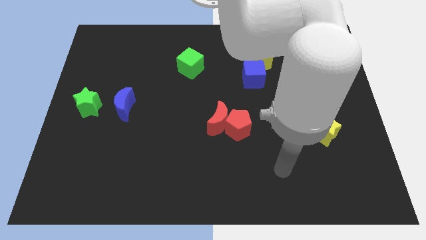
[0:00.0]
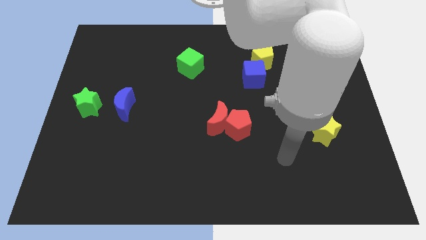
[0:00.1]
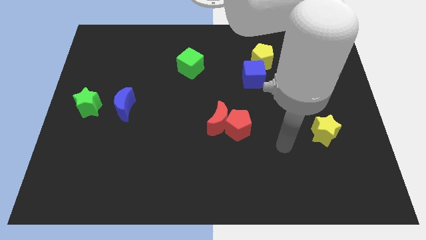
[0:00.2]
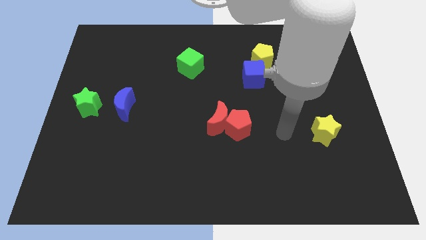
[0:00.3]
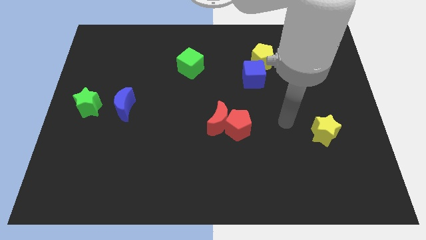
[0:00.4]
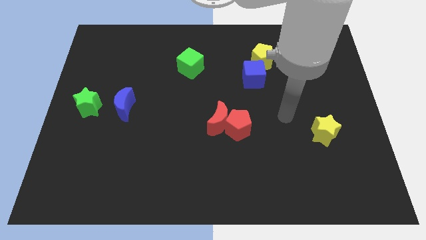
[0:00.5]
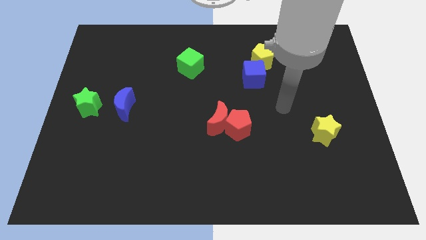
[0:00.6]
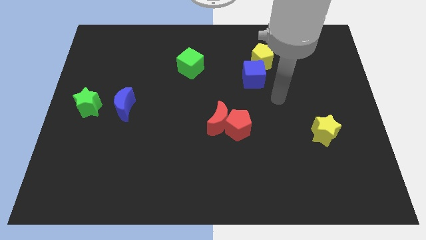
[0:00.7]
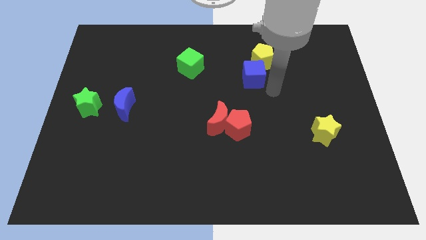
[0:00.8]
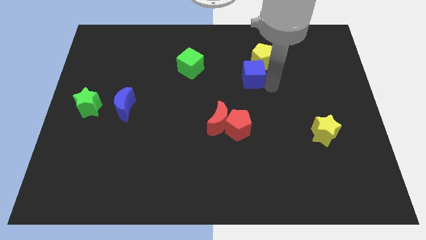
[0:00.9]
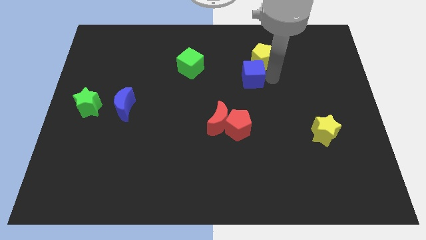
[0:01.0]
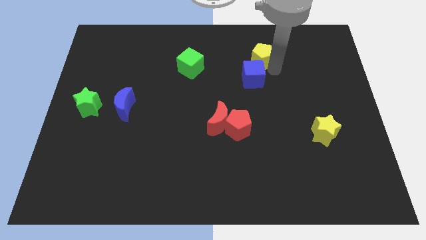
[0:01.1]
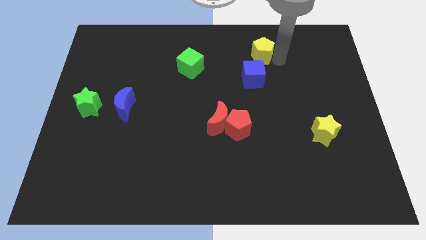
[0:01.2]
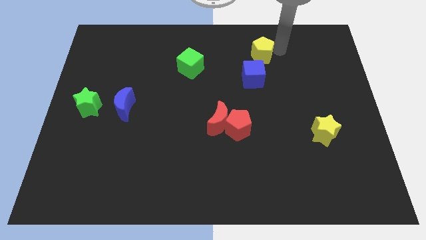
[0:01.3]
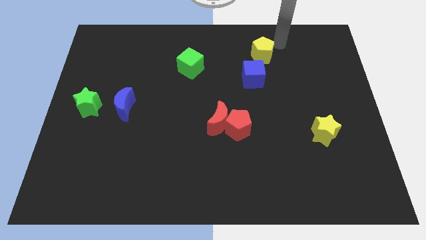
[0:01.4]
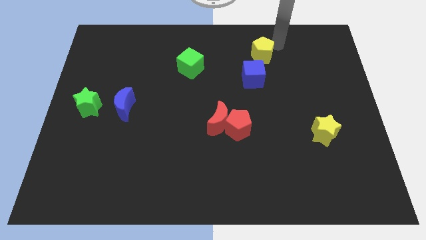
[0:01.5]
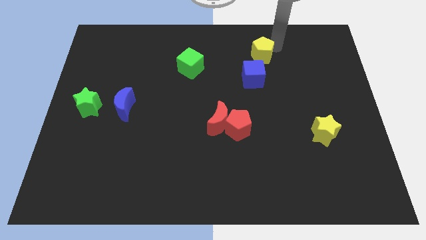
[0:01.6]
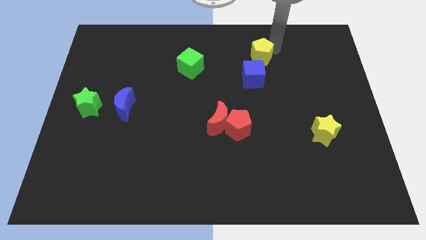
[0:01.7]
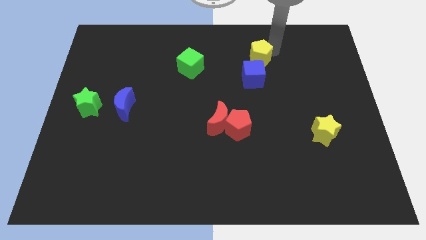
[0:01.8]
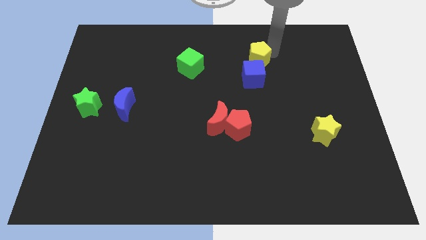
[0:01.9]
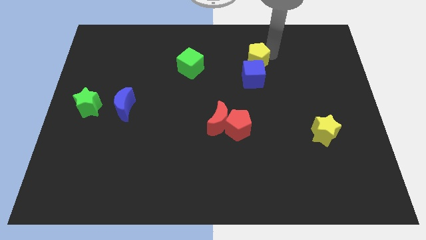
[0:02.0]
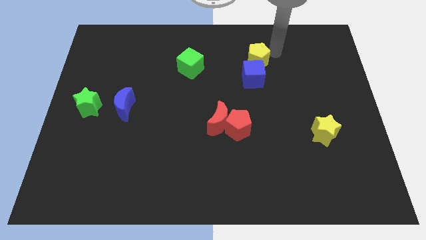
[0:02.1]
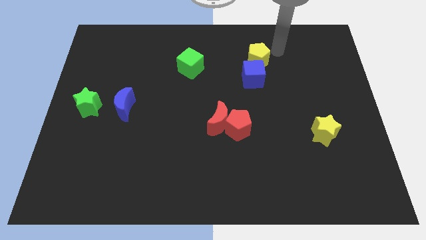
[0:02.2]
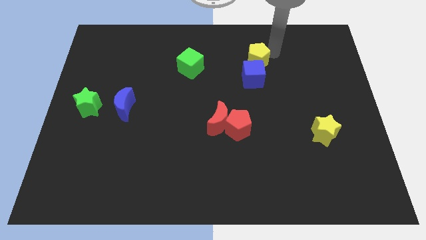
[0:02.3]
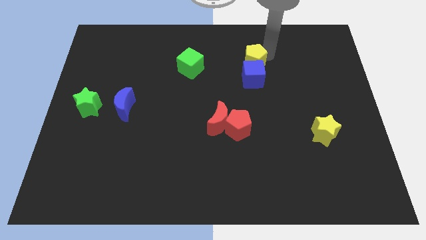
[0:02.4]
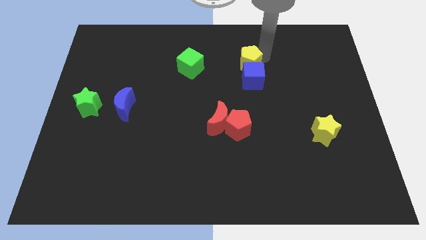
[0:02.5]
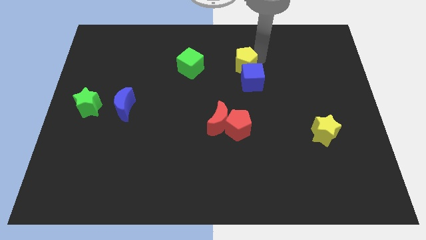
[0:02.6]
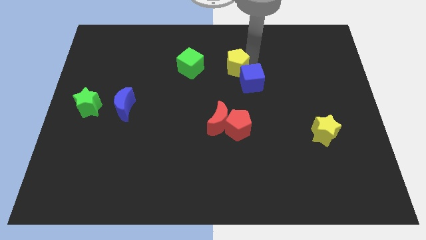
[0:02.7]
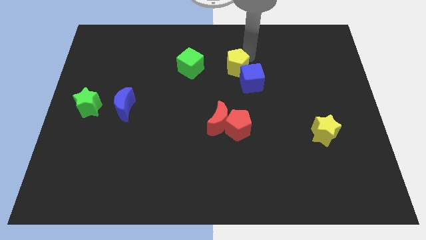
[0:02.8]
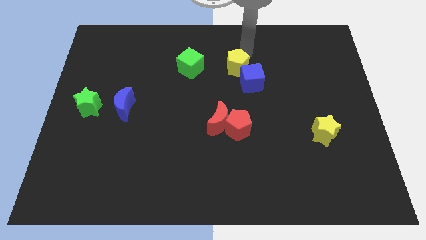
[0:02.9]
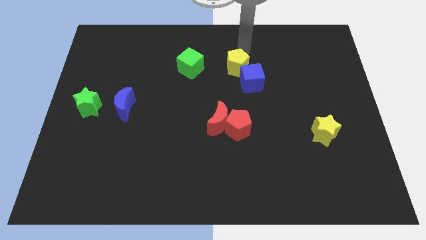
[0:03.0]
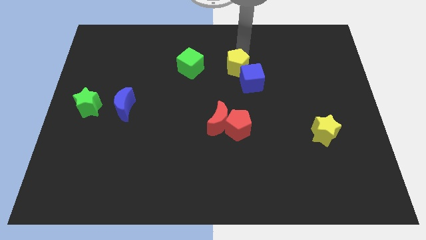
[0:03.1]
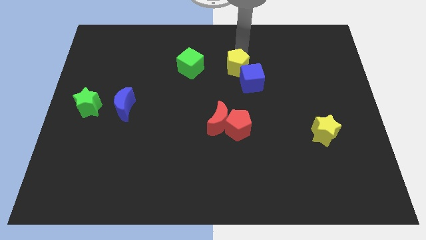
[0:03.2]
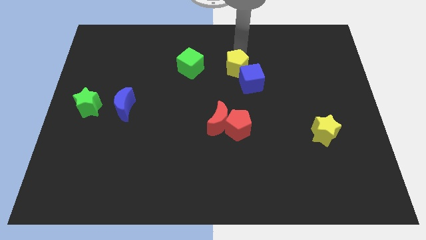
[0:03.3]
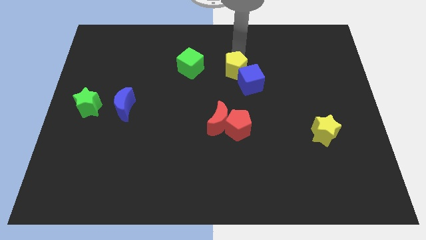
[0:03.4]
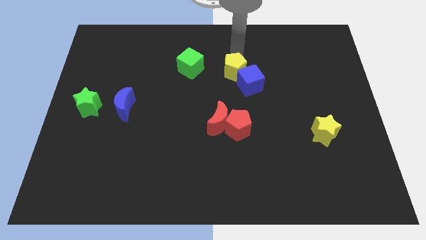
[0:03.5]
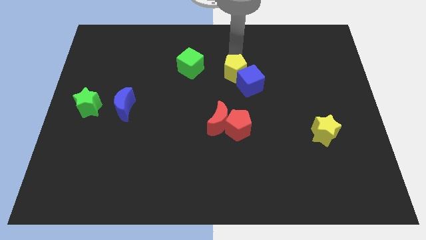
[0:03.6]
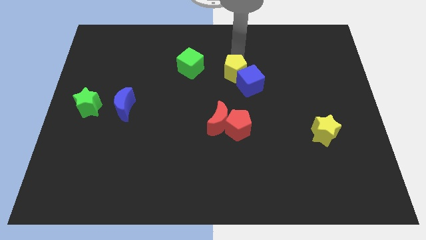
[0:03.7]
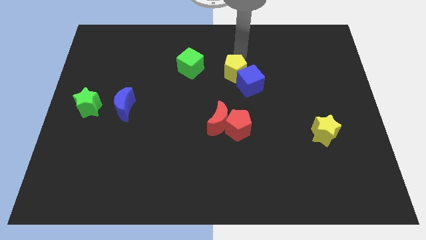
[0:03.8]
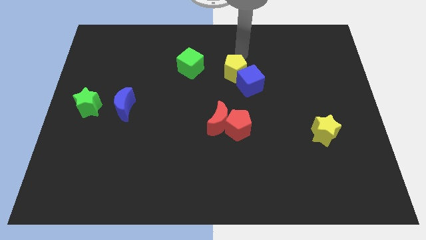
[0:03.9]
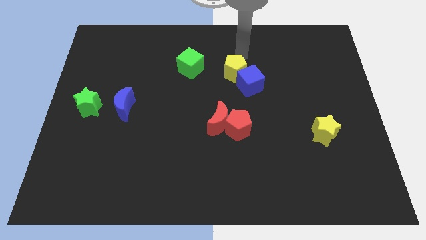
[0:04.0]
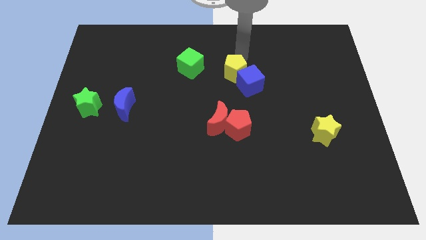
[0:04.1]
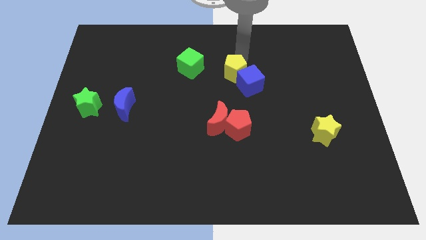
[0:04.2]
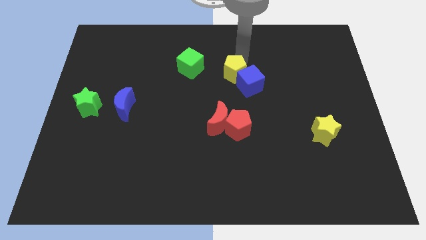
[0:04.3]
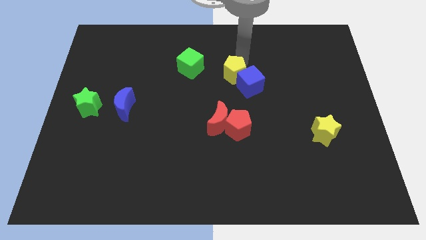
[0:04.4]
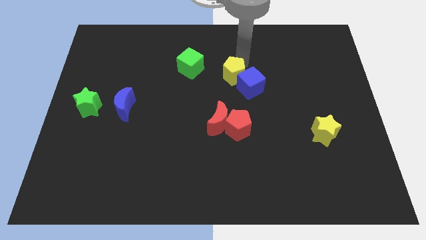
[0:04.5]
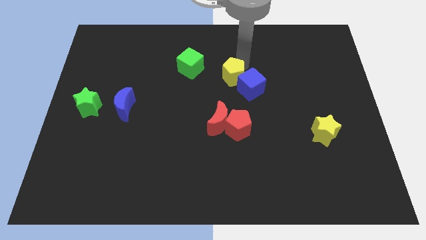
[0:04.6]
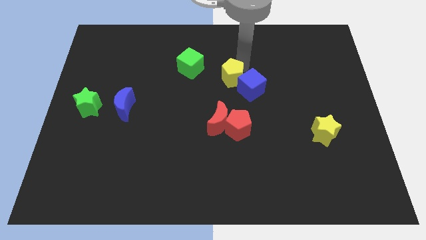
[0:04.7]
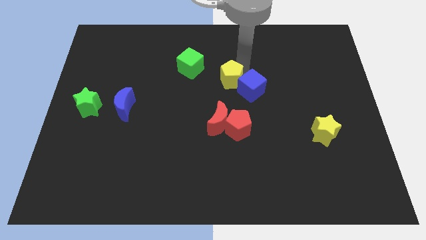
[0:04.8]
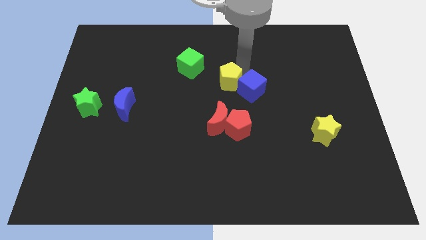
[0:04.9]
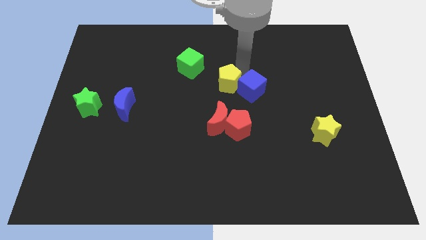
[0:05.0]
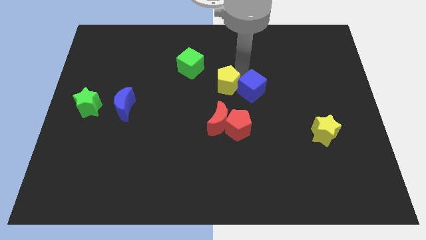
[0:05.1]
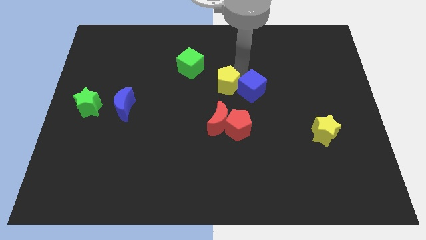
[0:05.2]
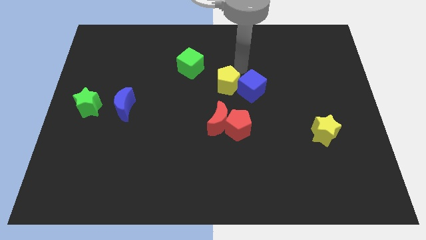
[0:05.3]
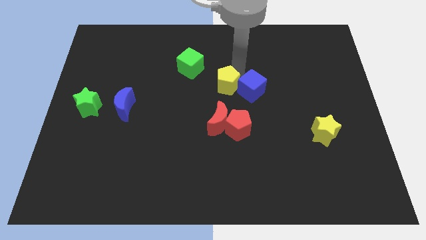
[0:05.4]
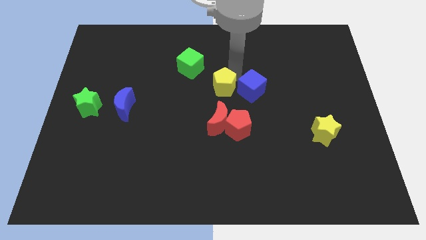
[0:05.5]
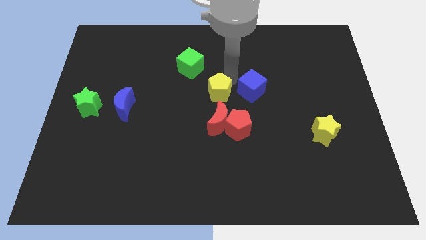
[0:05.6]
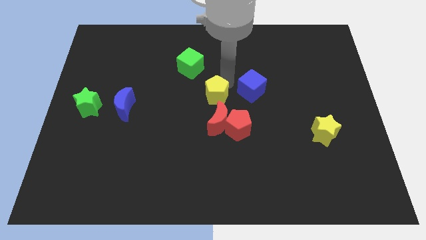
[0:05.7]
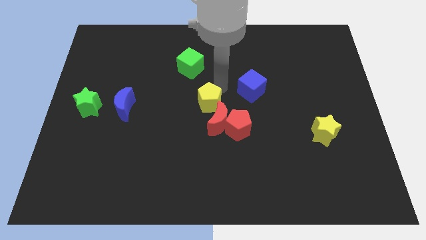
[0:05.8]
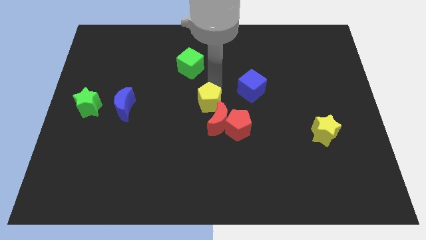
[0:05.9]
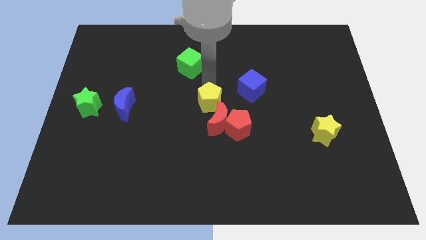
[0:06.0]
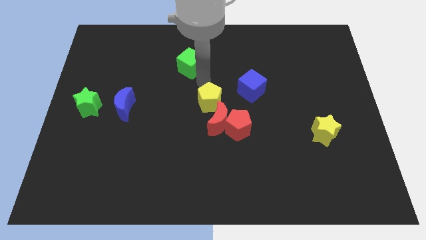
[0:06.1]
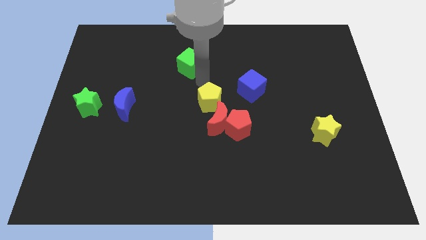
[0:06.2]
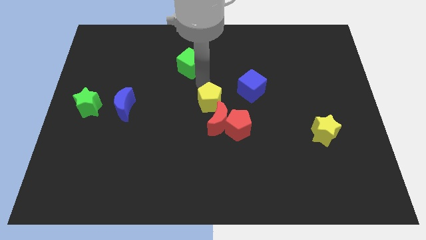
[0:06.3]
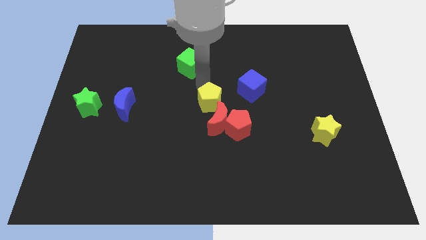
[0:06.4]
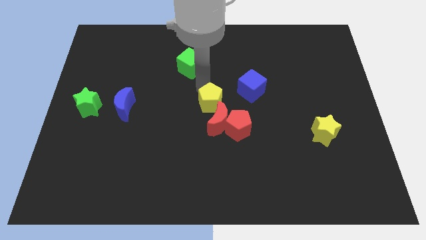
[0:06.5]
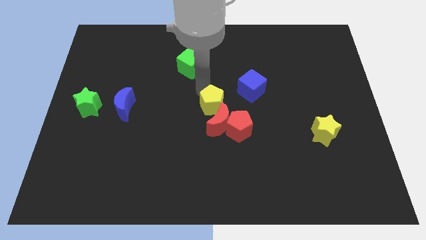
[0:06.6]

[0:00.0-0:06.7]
put the yellow pentagon towards the red moon

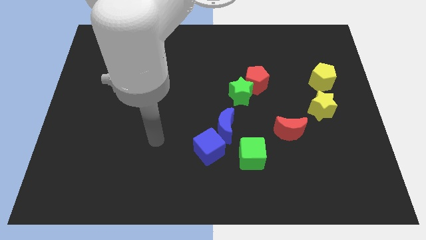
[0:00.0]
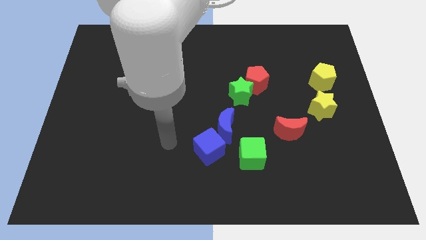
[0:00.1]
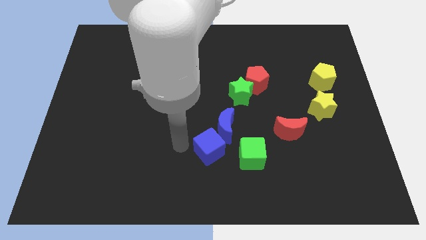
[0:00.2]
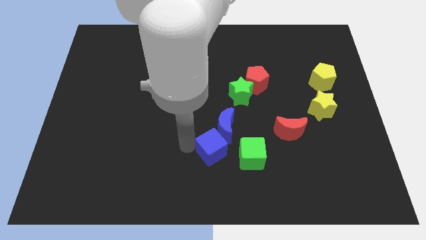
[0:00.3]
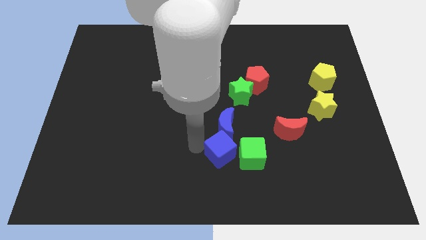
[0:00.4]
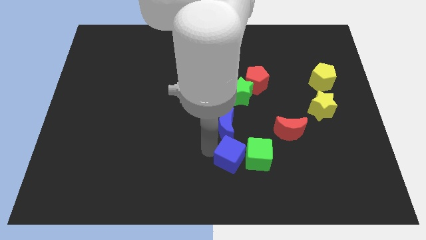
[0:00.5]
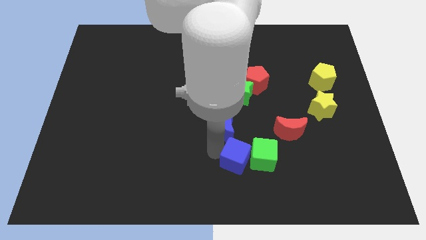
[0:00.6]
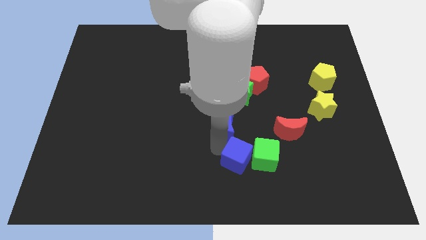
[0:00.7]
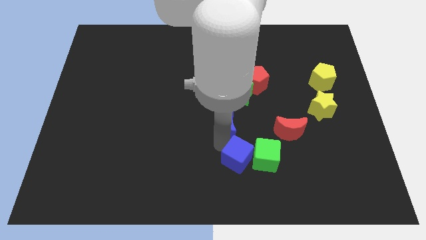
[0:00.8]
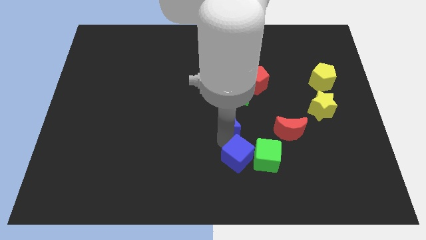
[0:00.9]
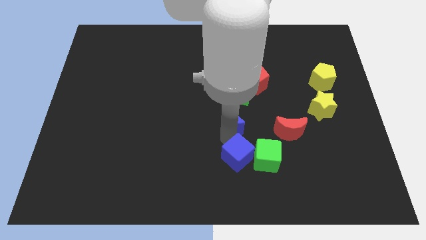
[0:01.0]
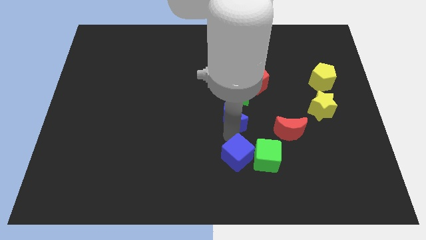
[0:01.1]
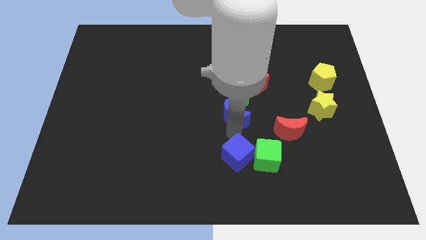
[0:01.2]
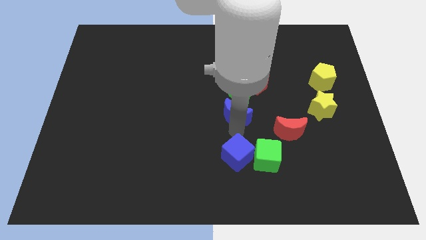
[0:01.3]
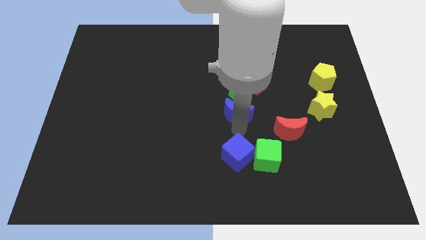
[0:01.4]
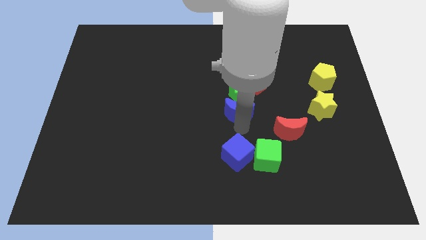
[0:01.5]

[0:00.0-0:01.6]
slide the blue moon to the green star
